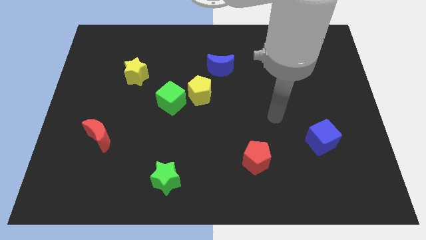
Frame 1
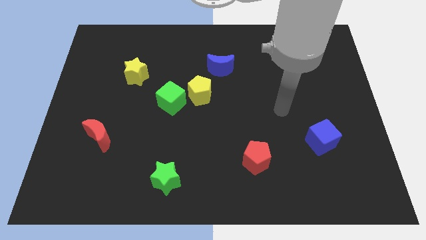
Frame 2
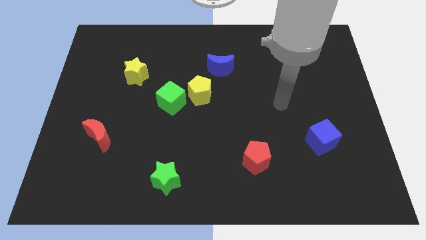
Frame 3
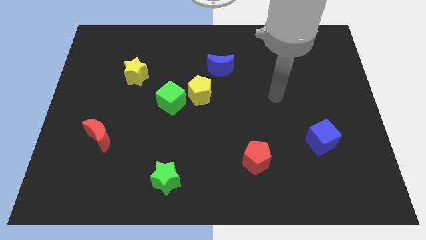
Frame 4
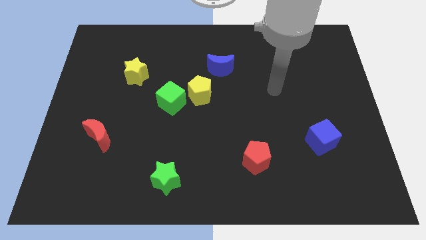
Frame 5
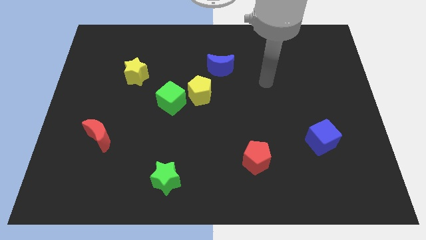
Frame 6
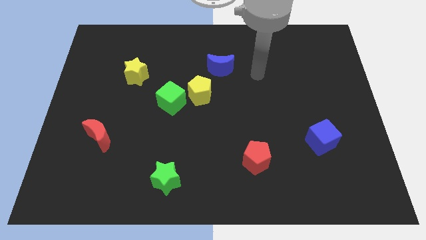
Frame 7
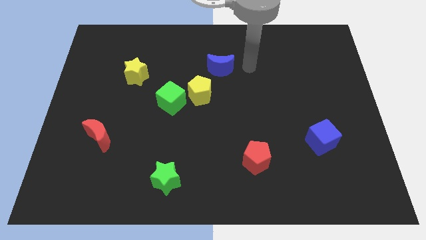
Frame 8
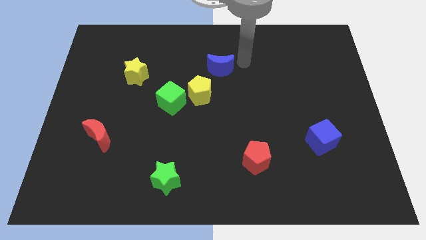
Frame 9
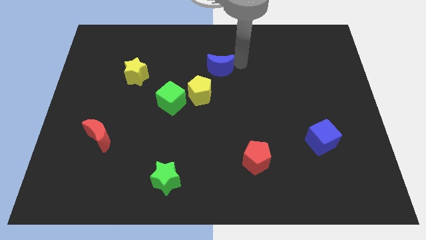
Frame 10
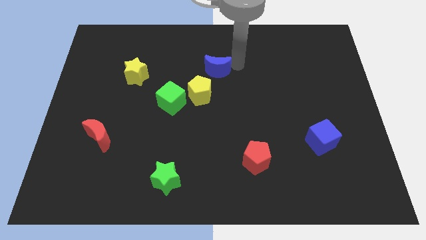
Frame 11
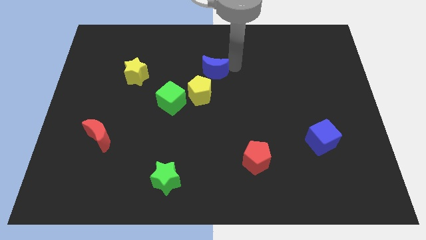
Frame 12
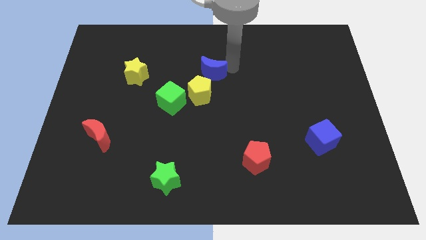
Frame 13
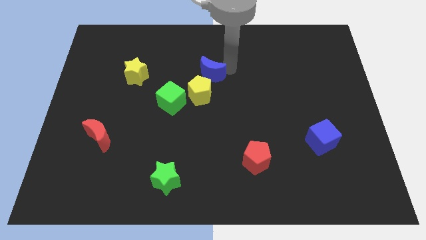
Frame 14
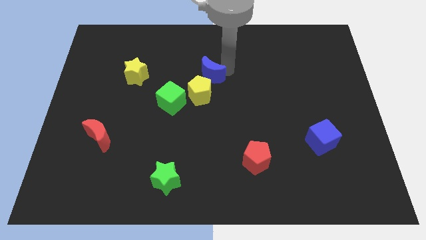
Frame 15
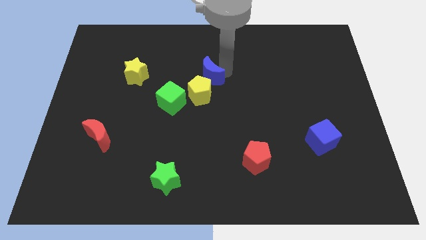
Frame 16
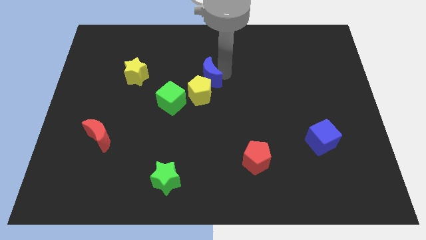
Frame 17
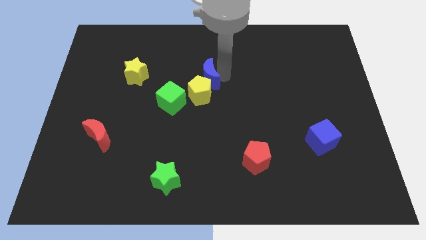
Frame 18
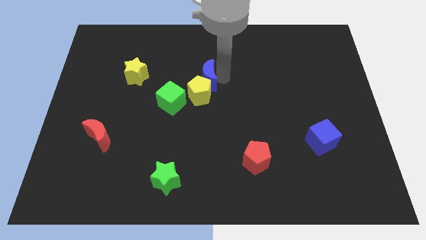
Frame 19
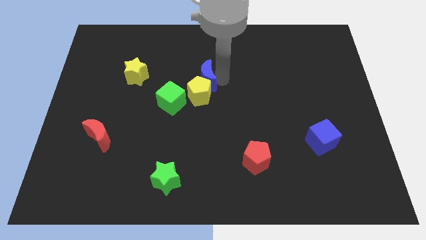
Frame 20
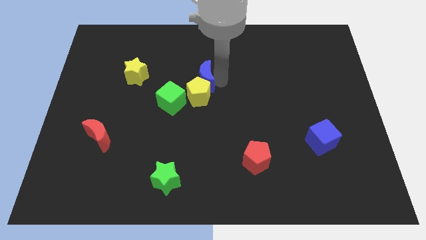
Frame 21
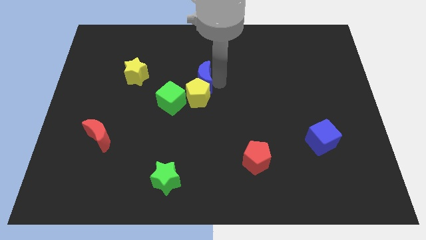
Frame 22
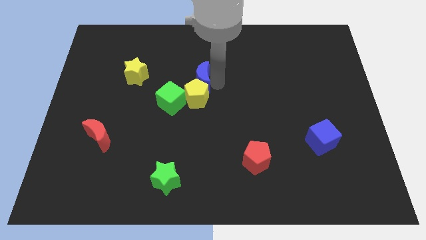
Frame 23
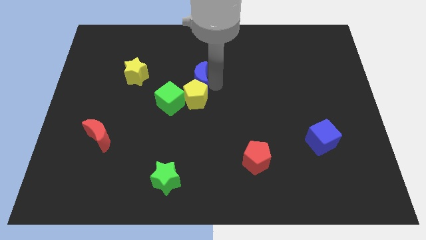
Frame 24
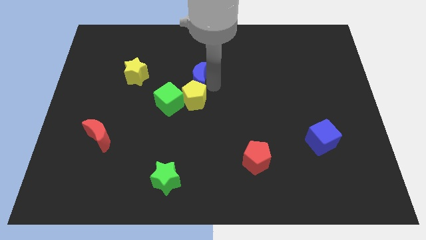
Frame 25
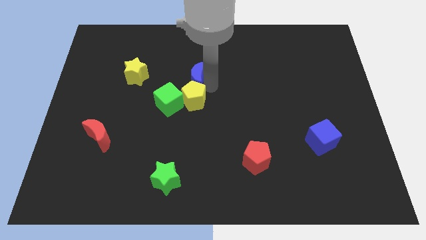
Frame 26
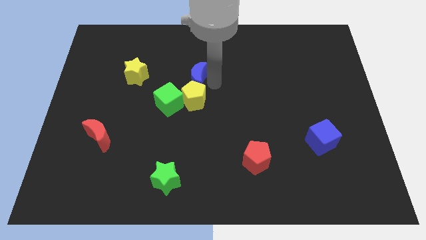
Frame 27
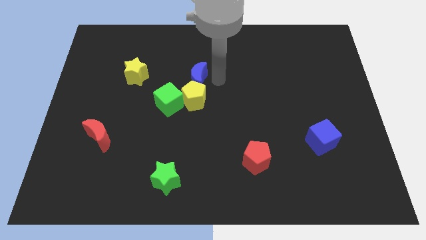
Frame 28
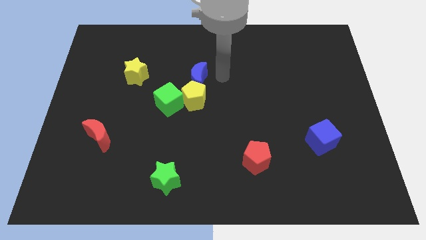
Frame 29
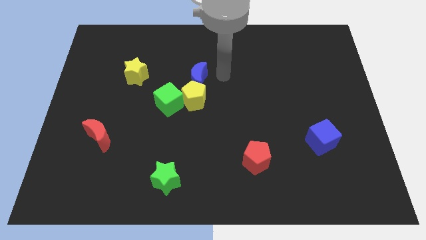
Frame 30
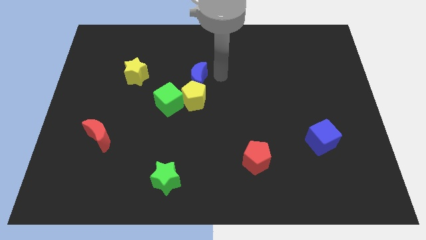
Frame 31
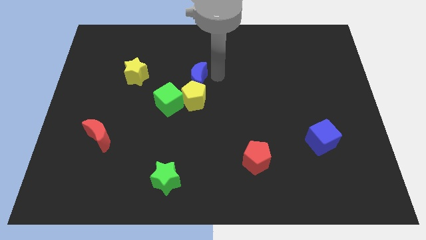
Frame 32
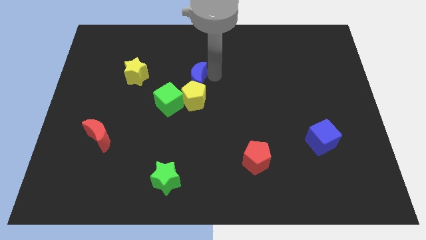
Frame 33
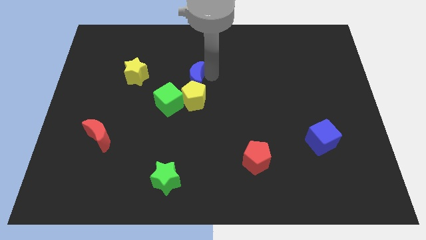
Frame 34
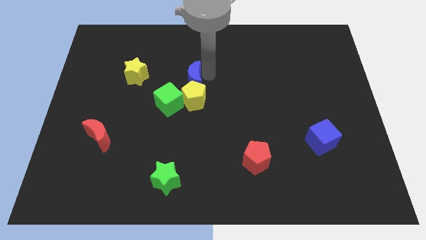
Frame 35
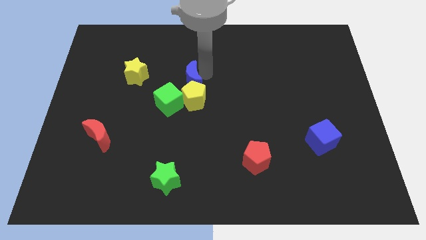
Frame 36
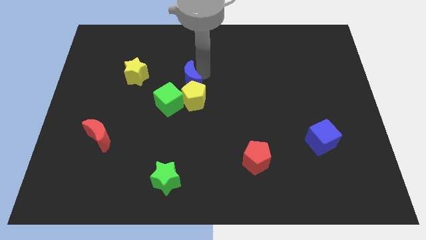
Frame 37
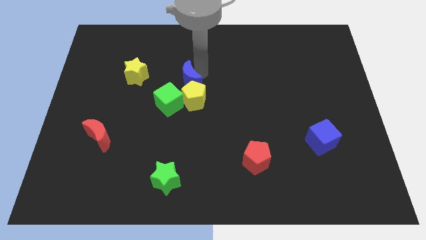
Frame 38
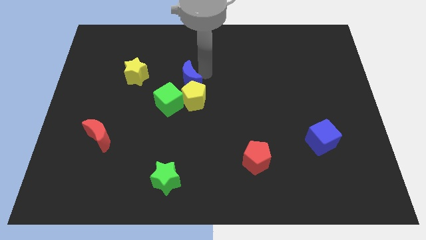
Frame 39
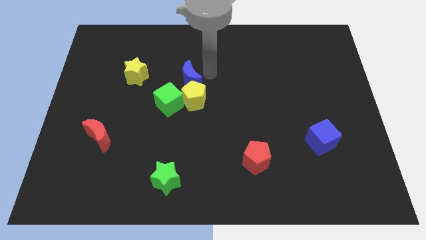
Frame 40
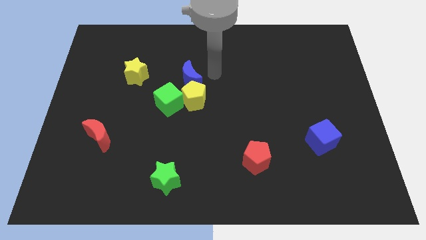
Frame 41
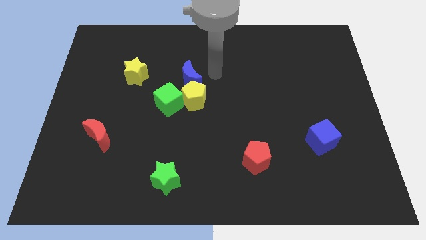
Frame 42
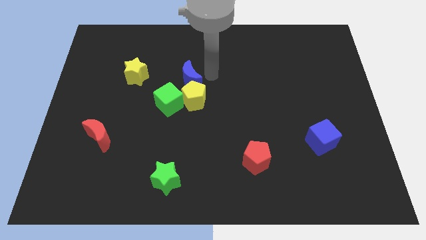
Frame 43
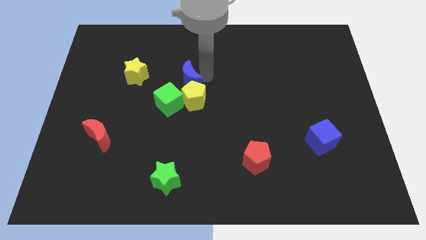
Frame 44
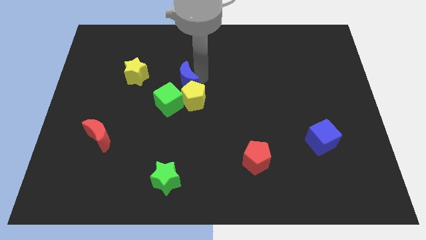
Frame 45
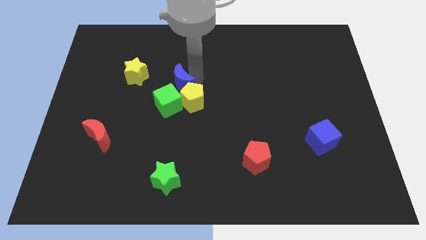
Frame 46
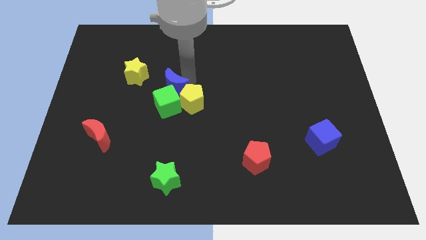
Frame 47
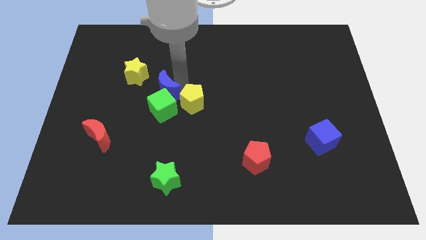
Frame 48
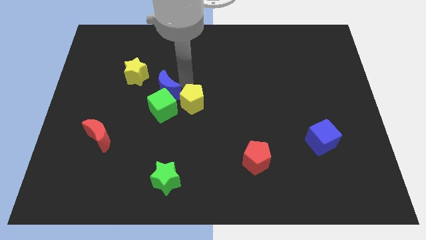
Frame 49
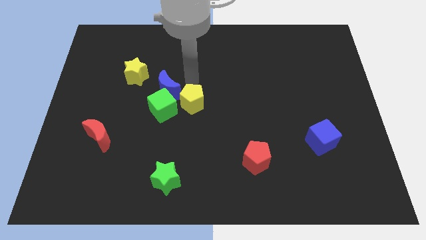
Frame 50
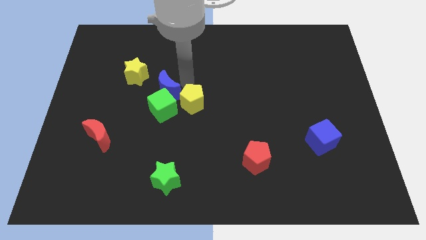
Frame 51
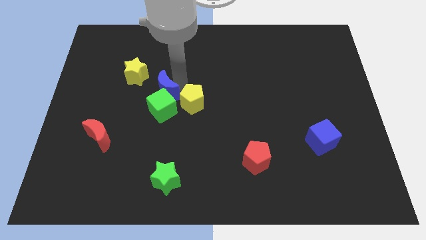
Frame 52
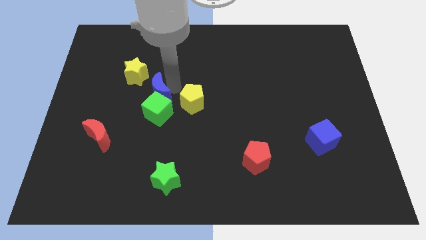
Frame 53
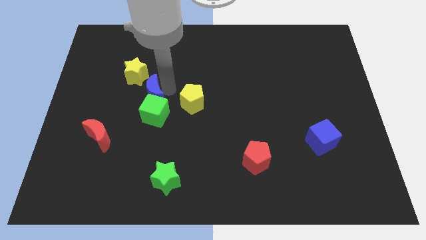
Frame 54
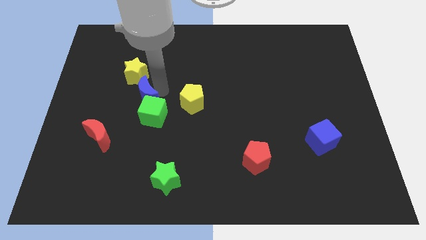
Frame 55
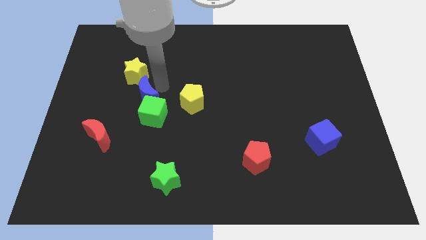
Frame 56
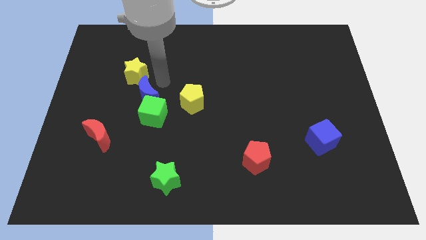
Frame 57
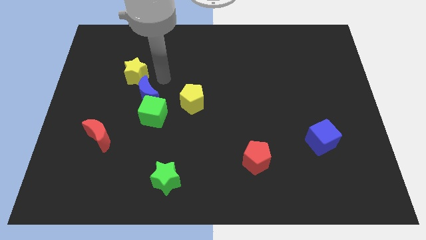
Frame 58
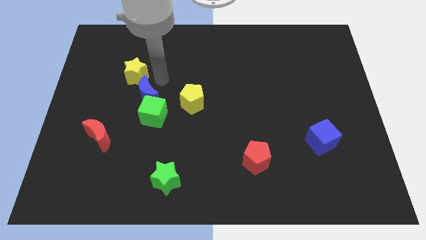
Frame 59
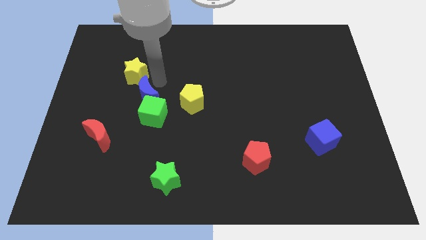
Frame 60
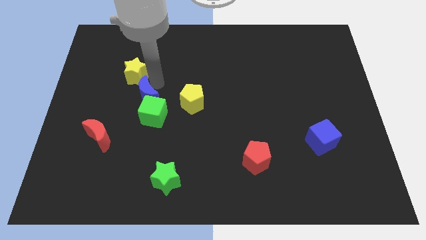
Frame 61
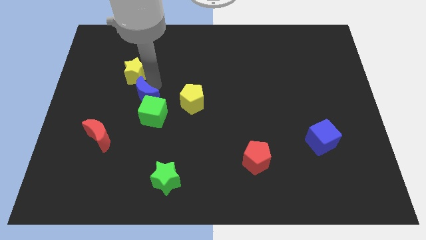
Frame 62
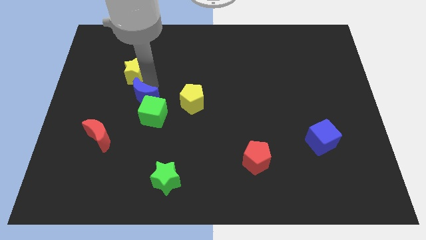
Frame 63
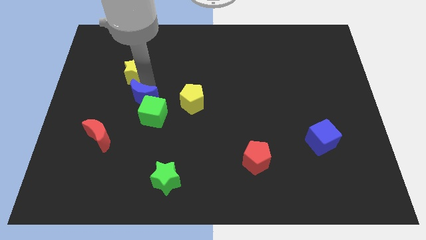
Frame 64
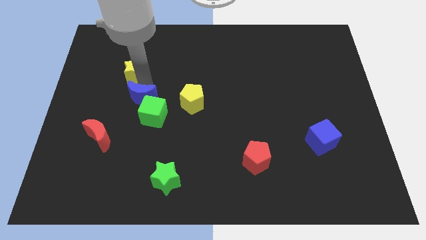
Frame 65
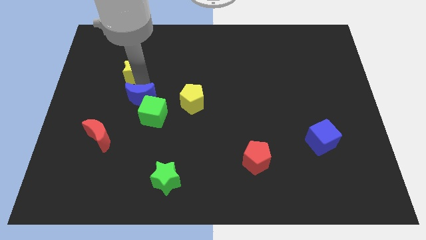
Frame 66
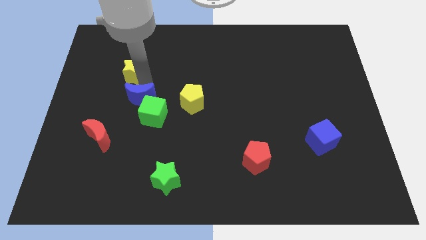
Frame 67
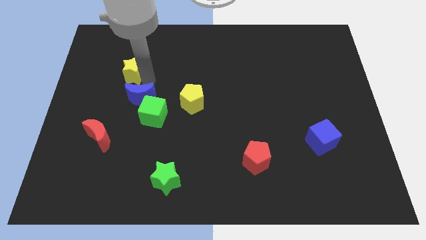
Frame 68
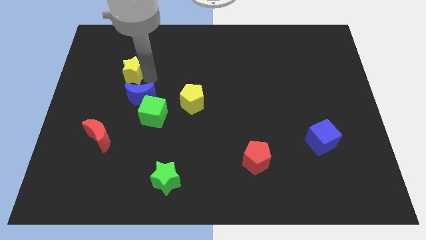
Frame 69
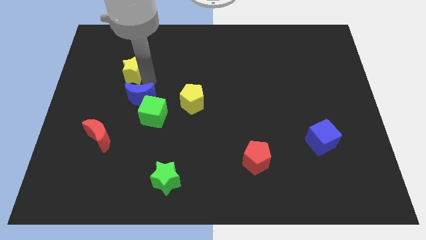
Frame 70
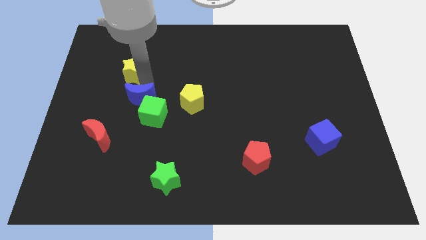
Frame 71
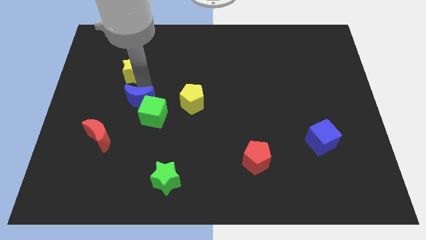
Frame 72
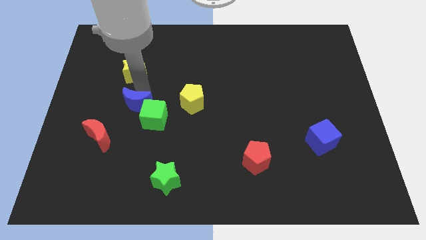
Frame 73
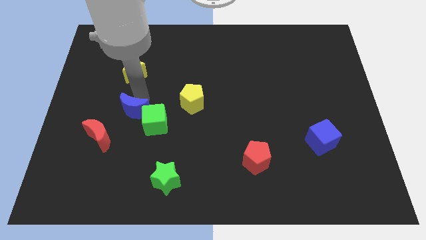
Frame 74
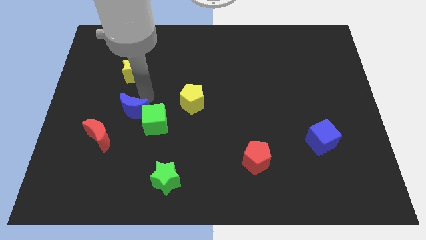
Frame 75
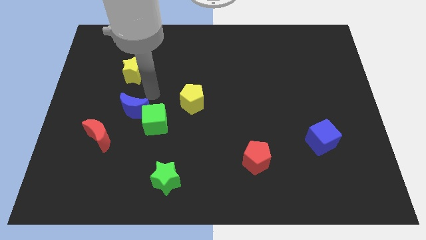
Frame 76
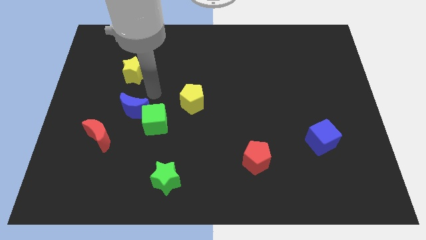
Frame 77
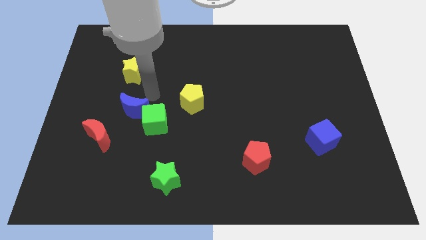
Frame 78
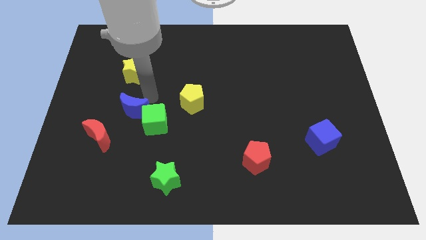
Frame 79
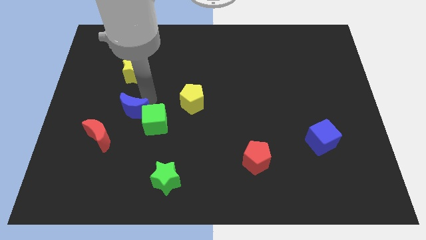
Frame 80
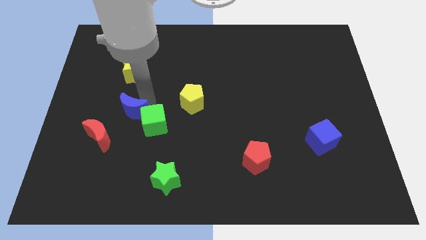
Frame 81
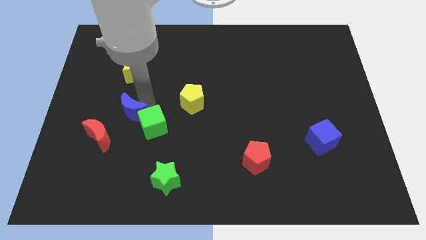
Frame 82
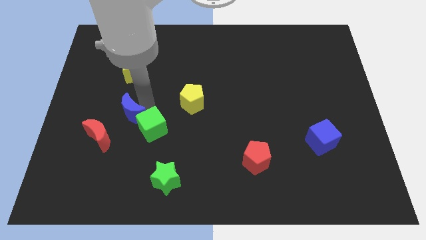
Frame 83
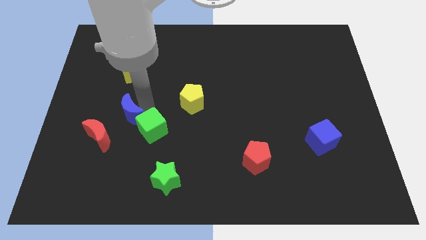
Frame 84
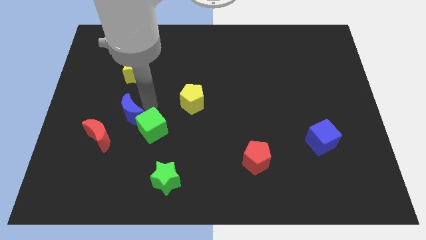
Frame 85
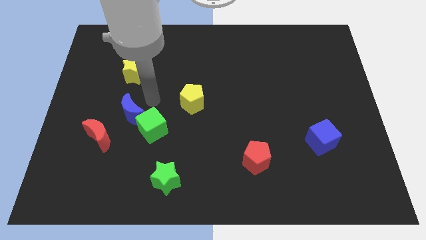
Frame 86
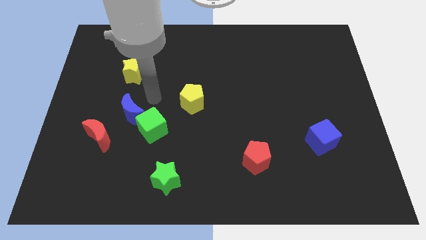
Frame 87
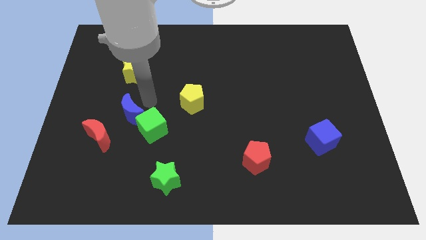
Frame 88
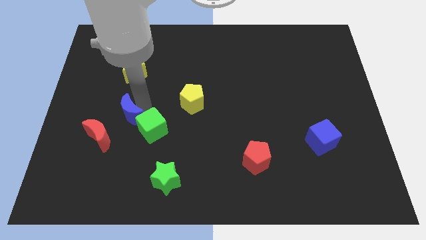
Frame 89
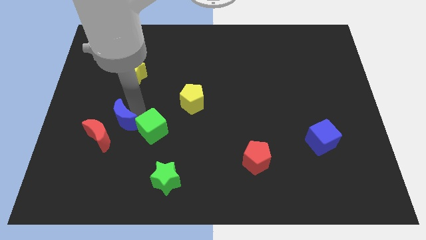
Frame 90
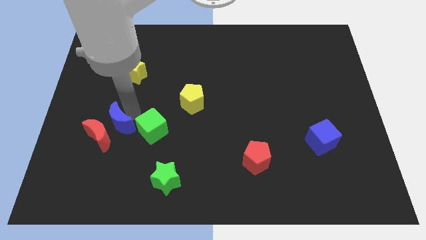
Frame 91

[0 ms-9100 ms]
push the blue moon close to the red moon
